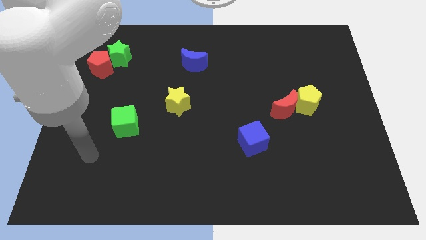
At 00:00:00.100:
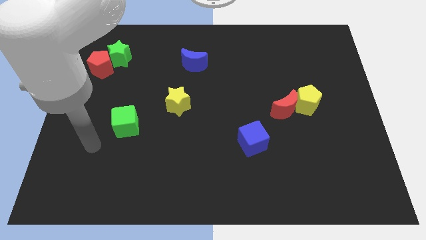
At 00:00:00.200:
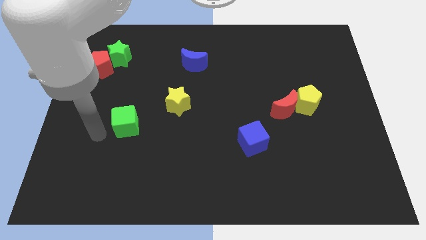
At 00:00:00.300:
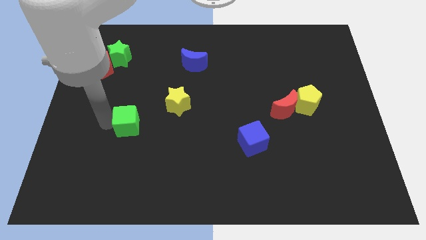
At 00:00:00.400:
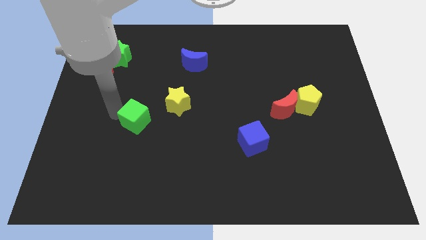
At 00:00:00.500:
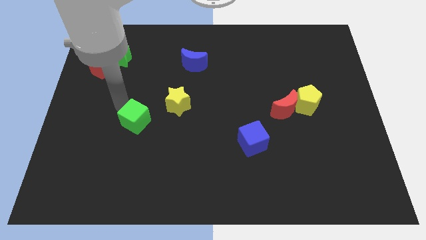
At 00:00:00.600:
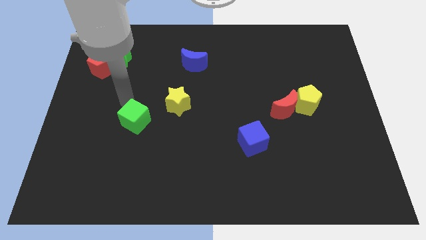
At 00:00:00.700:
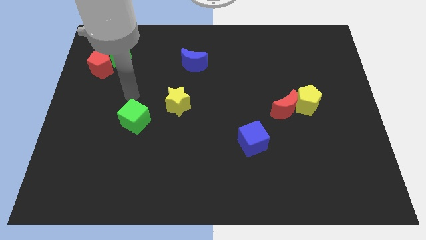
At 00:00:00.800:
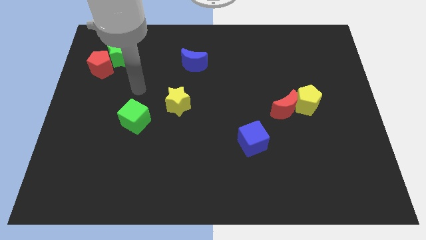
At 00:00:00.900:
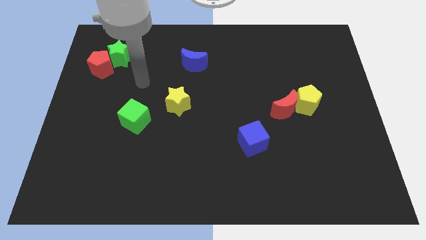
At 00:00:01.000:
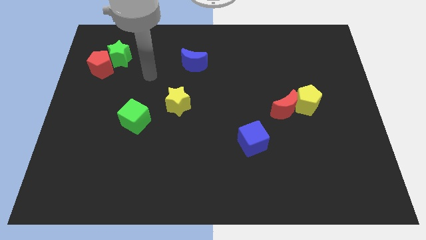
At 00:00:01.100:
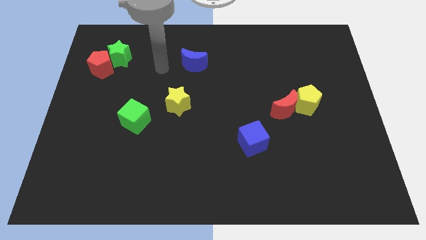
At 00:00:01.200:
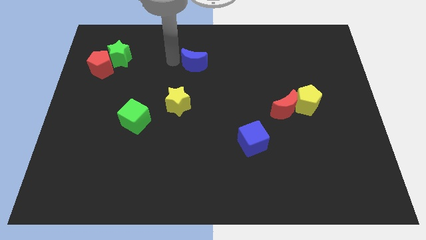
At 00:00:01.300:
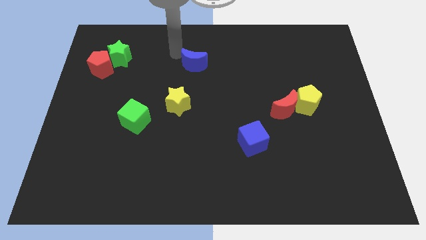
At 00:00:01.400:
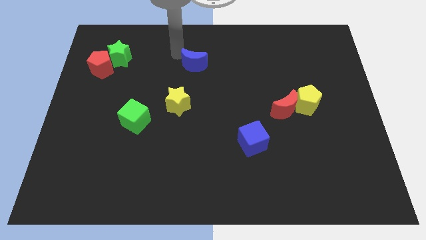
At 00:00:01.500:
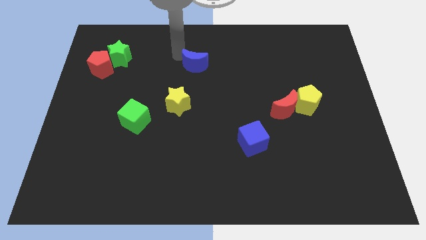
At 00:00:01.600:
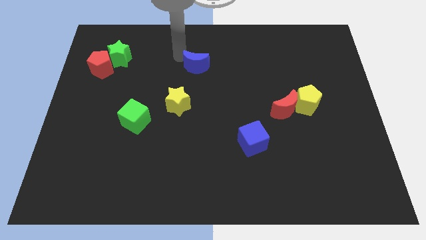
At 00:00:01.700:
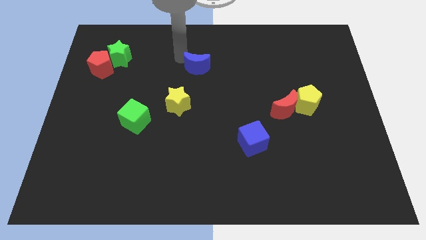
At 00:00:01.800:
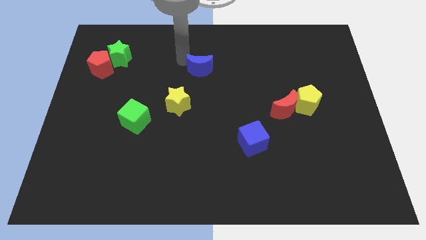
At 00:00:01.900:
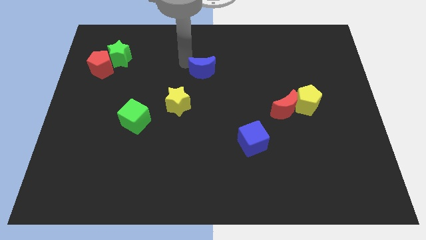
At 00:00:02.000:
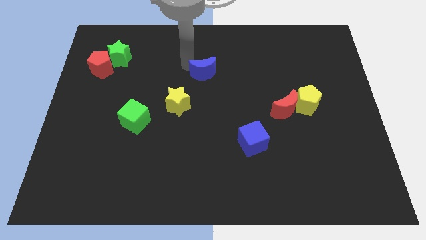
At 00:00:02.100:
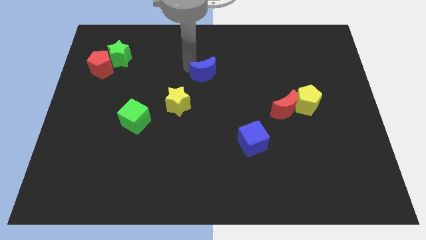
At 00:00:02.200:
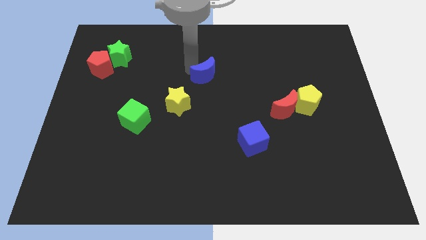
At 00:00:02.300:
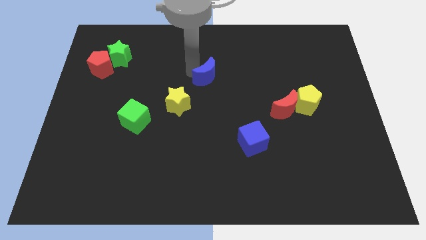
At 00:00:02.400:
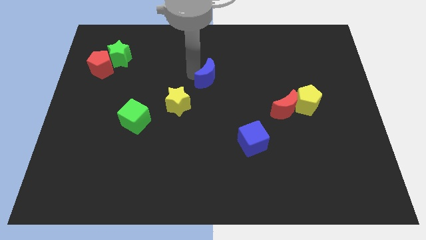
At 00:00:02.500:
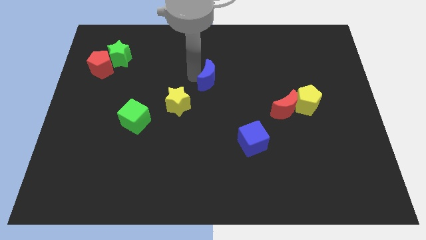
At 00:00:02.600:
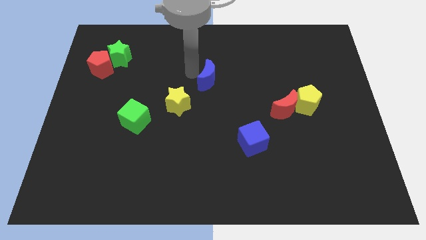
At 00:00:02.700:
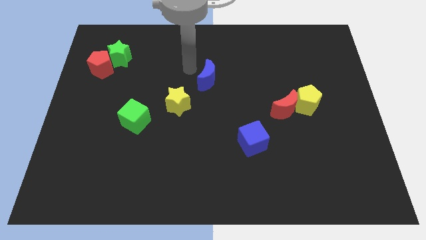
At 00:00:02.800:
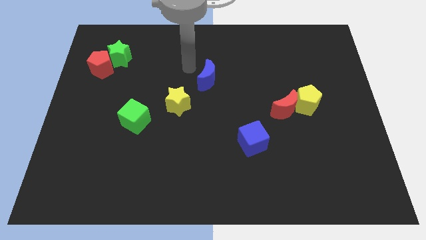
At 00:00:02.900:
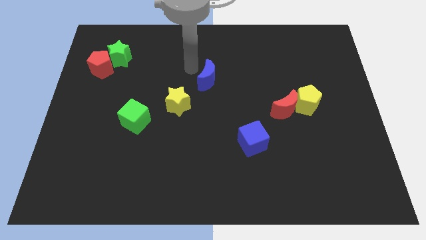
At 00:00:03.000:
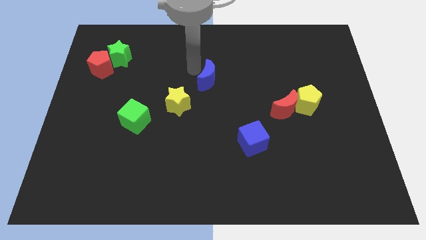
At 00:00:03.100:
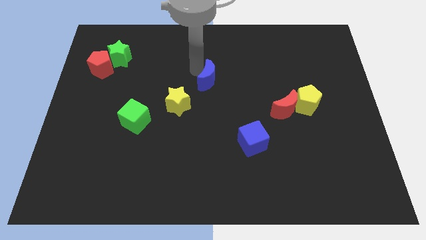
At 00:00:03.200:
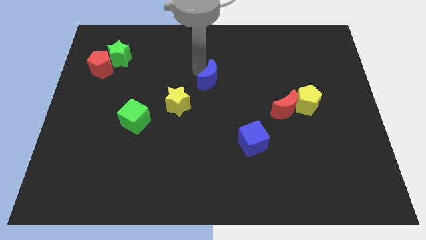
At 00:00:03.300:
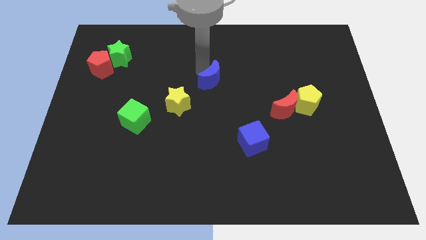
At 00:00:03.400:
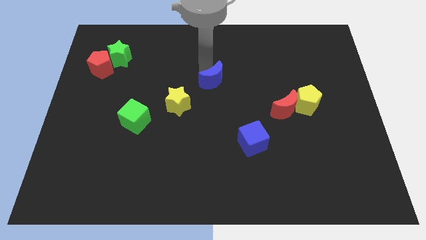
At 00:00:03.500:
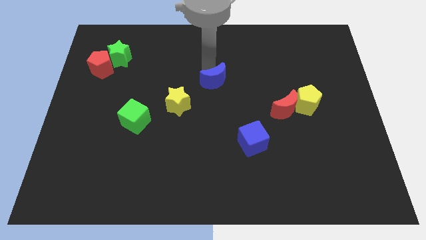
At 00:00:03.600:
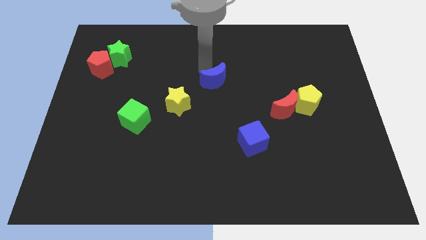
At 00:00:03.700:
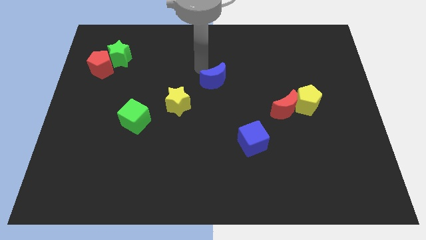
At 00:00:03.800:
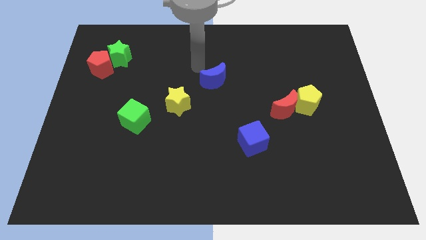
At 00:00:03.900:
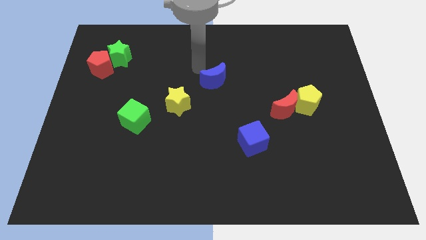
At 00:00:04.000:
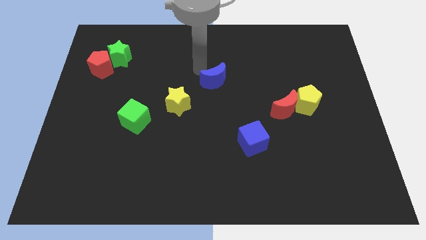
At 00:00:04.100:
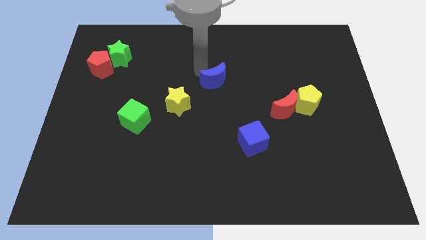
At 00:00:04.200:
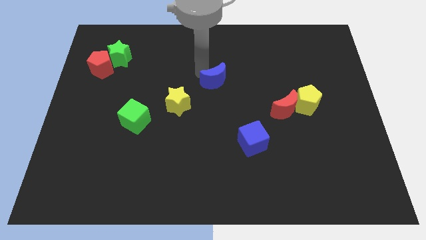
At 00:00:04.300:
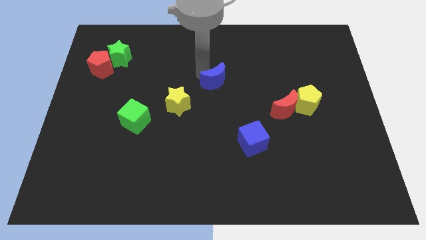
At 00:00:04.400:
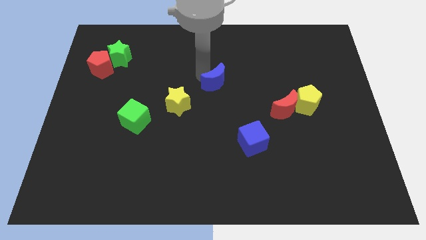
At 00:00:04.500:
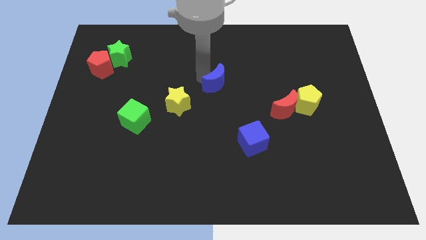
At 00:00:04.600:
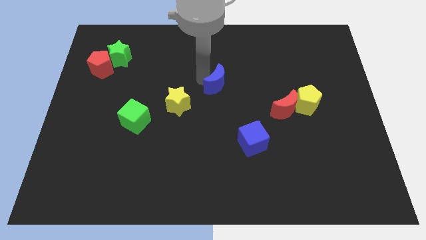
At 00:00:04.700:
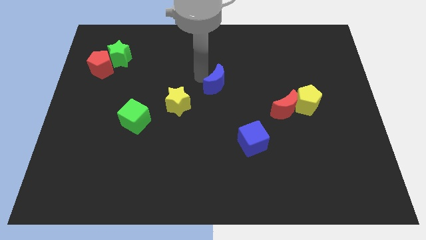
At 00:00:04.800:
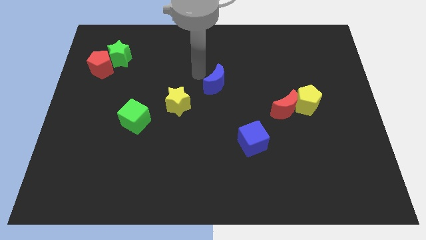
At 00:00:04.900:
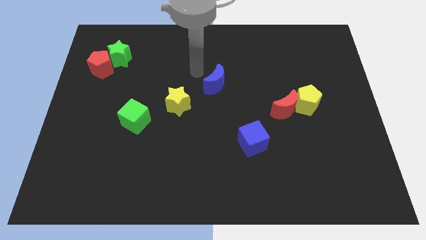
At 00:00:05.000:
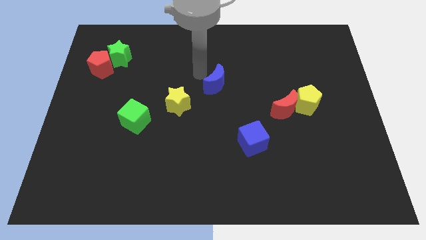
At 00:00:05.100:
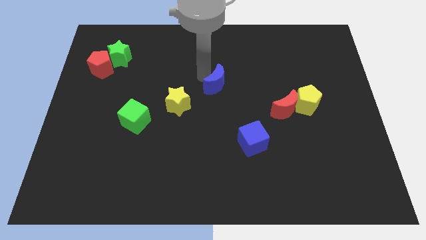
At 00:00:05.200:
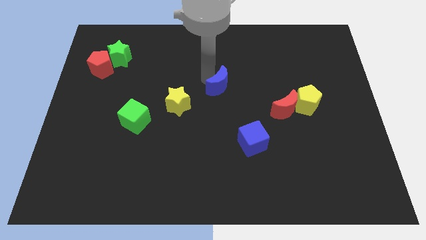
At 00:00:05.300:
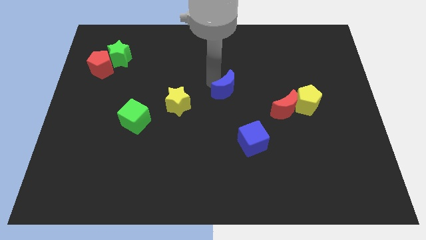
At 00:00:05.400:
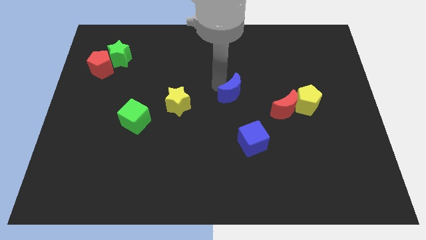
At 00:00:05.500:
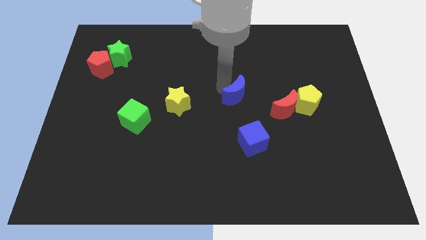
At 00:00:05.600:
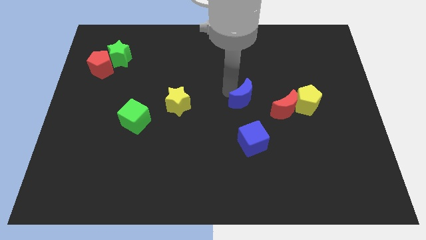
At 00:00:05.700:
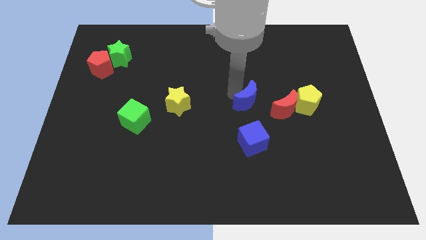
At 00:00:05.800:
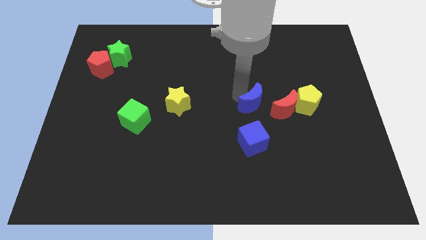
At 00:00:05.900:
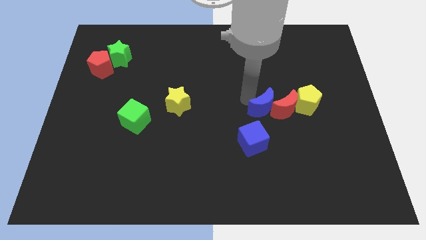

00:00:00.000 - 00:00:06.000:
slide the blue moon downwards and to the right

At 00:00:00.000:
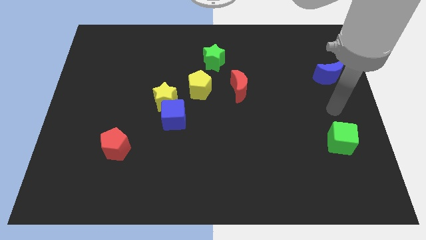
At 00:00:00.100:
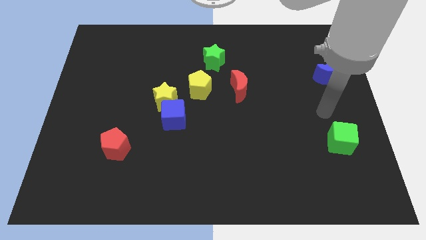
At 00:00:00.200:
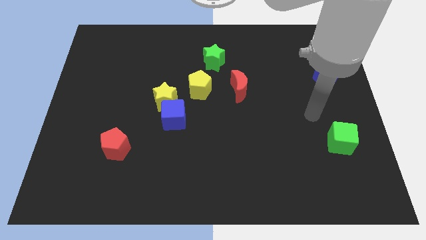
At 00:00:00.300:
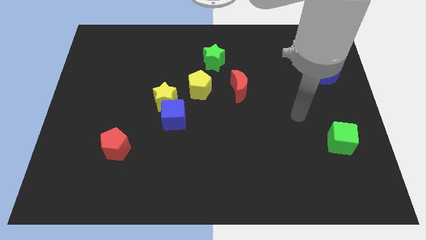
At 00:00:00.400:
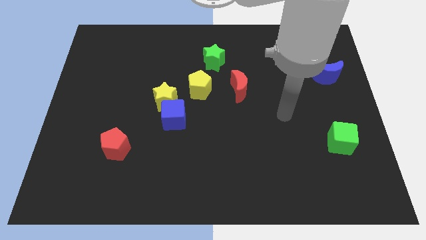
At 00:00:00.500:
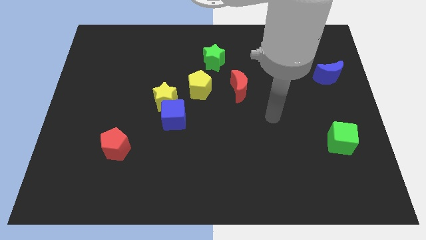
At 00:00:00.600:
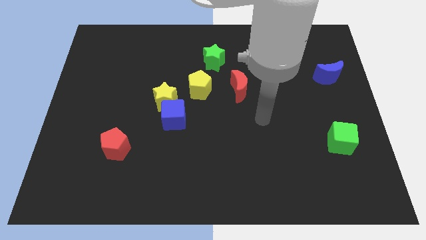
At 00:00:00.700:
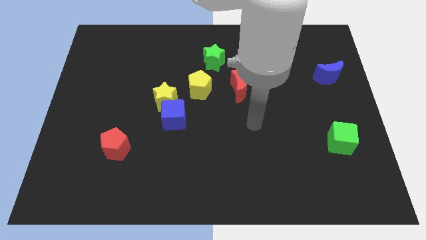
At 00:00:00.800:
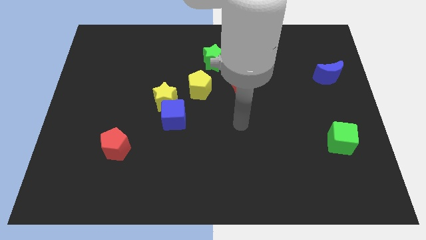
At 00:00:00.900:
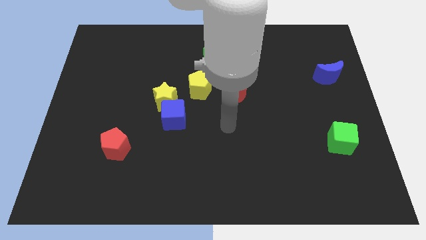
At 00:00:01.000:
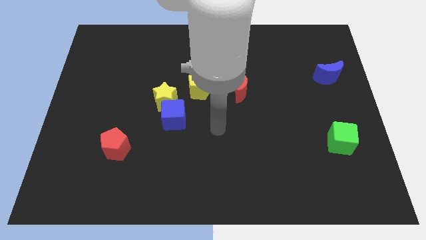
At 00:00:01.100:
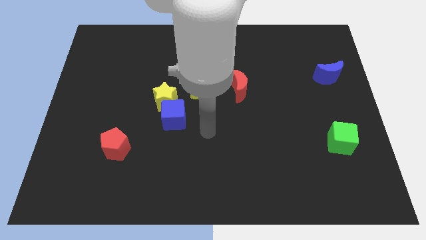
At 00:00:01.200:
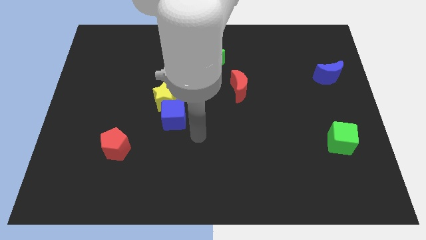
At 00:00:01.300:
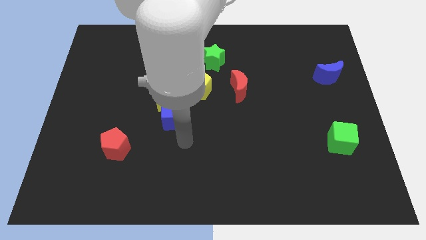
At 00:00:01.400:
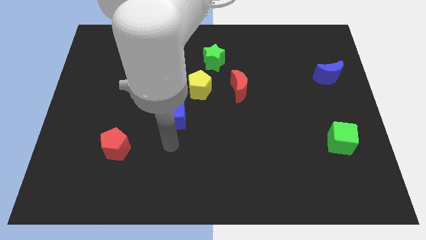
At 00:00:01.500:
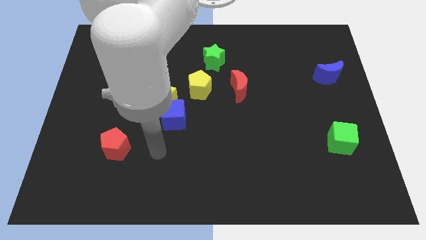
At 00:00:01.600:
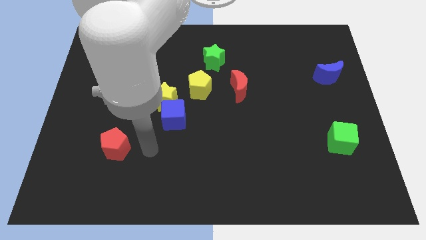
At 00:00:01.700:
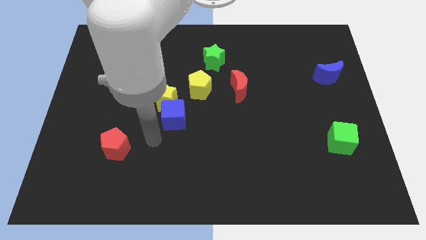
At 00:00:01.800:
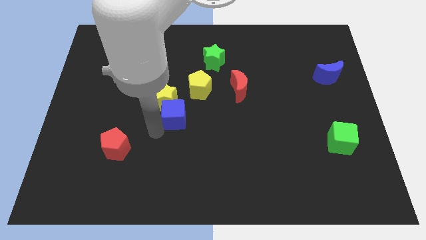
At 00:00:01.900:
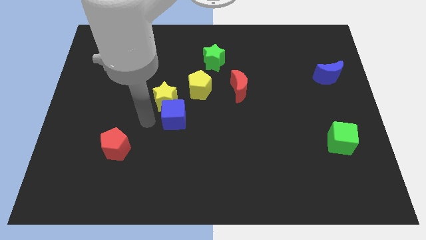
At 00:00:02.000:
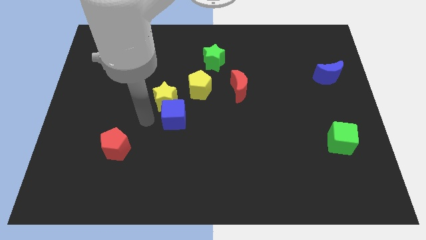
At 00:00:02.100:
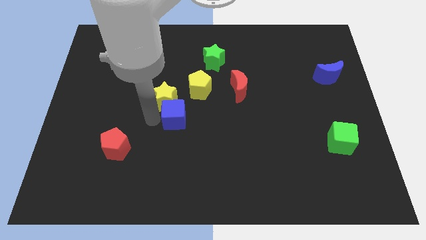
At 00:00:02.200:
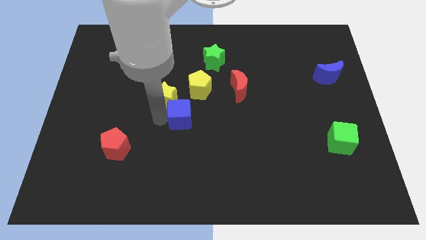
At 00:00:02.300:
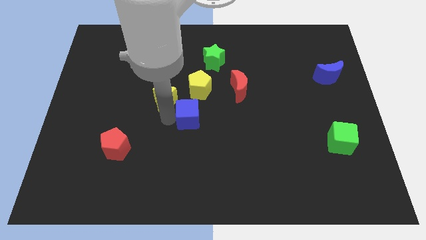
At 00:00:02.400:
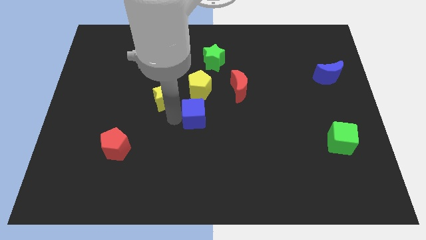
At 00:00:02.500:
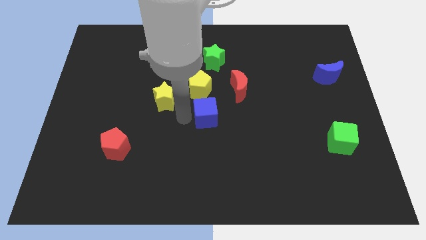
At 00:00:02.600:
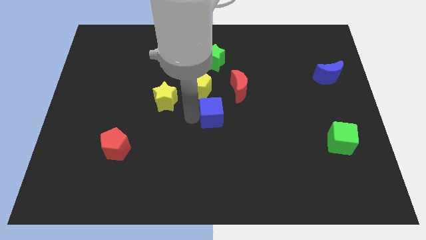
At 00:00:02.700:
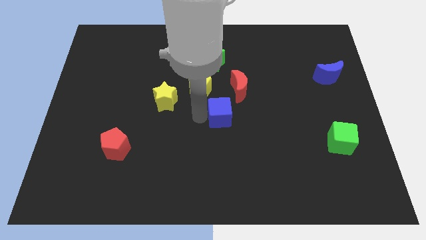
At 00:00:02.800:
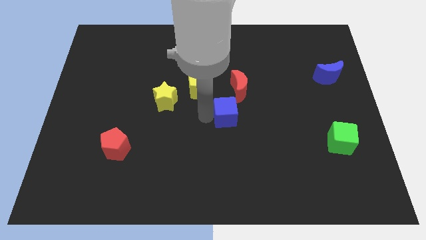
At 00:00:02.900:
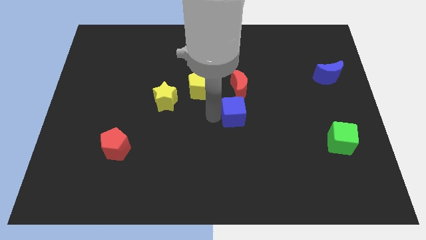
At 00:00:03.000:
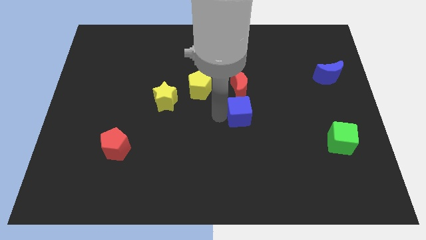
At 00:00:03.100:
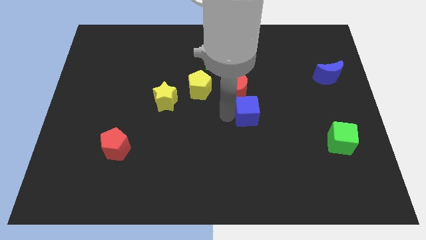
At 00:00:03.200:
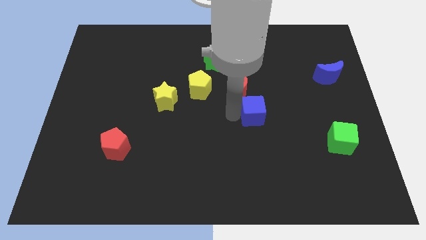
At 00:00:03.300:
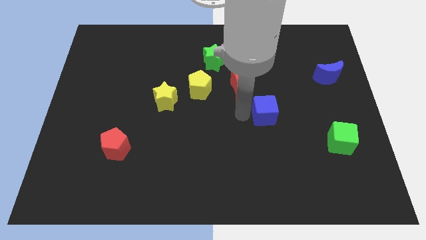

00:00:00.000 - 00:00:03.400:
push the blue cube to the right
